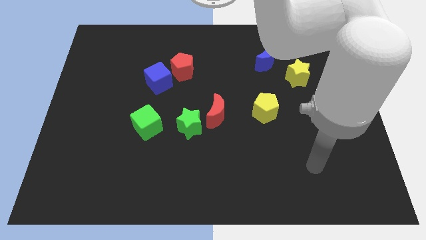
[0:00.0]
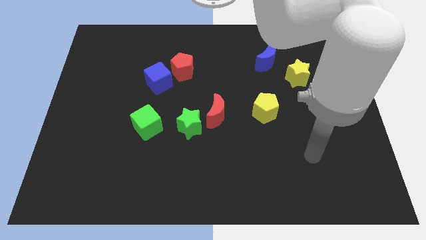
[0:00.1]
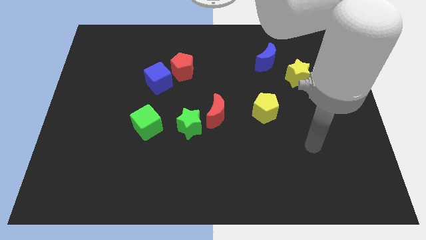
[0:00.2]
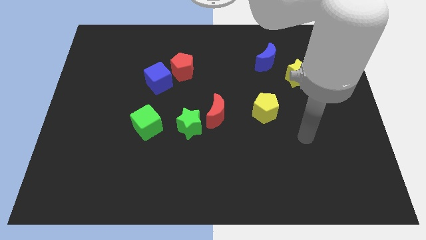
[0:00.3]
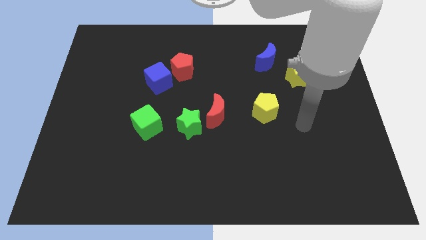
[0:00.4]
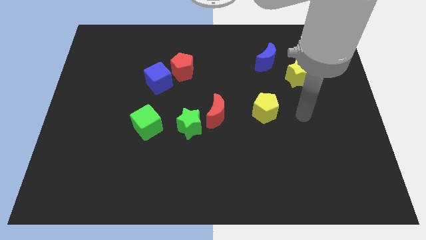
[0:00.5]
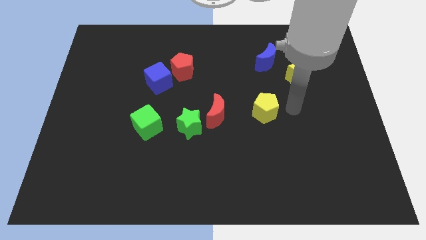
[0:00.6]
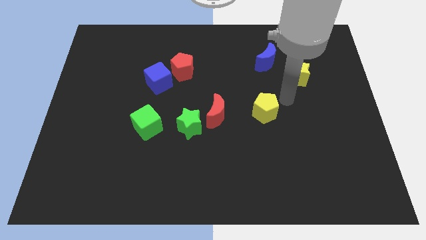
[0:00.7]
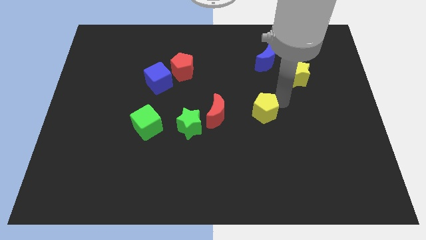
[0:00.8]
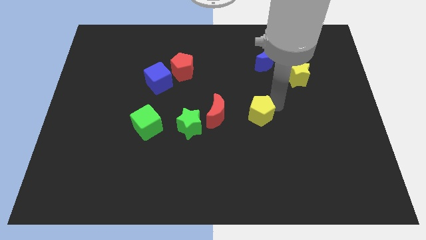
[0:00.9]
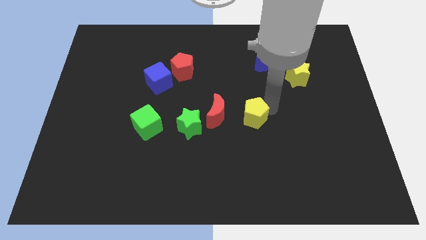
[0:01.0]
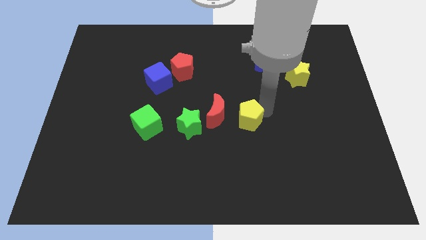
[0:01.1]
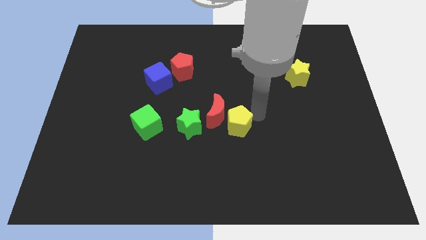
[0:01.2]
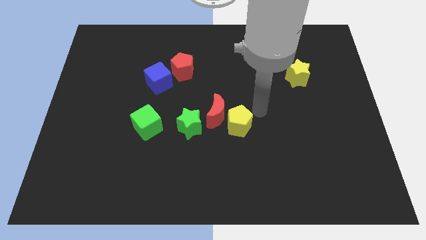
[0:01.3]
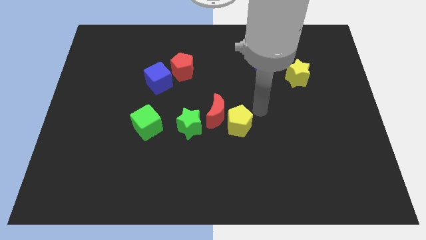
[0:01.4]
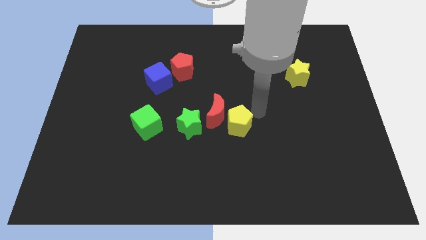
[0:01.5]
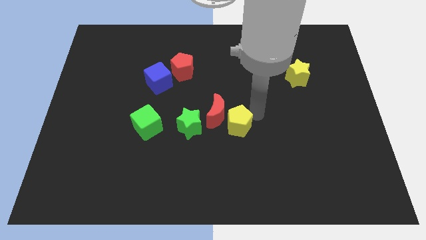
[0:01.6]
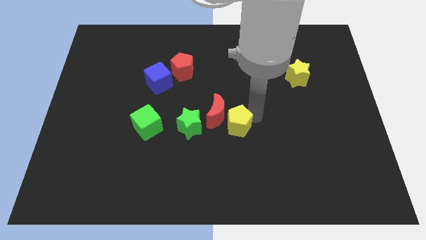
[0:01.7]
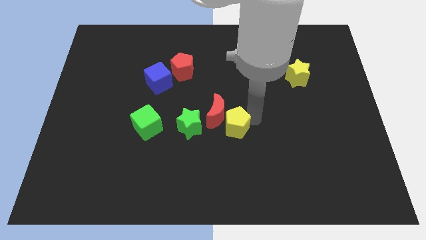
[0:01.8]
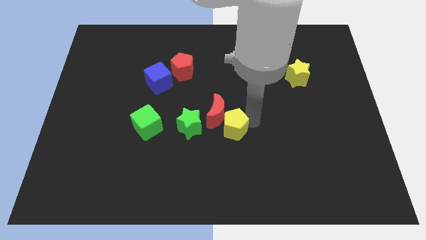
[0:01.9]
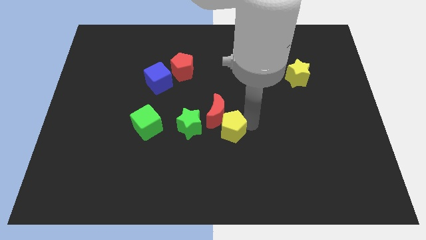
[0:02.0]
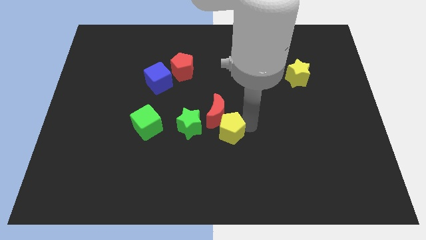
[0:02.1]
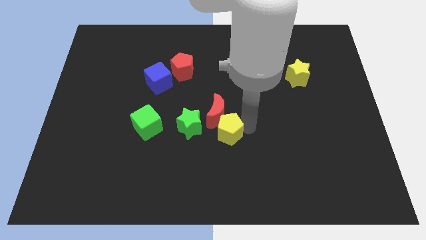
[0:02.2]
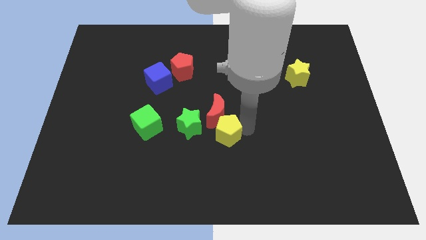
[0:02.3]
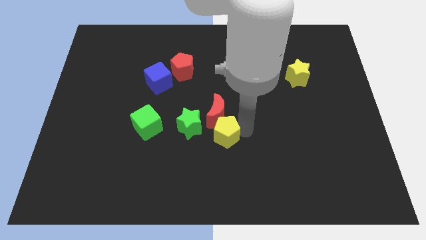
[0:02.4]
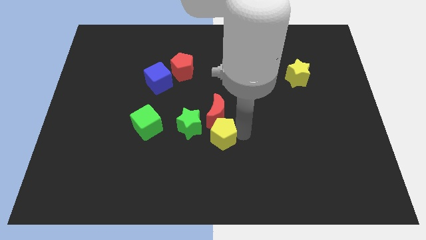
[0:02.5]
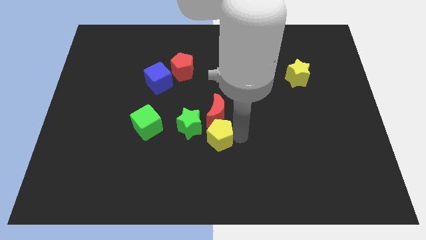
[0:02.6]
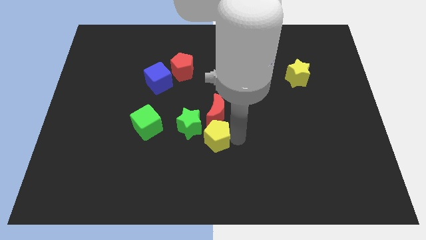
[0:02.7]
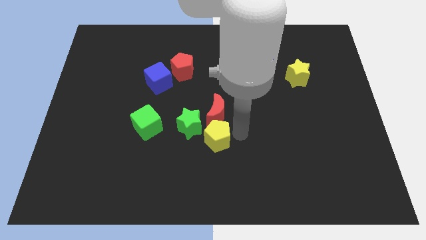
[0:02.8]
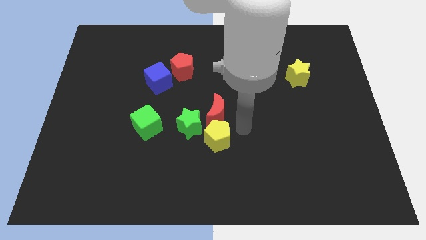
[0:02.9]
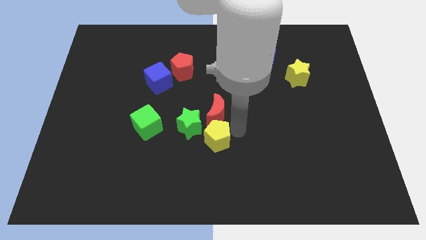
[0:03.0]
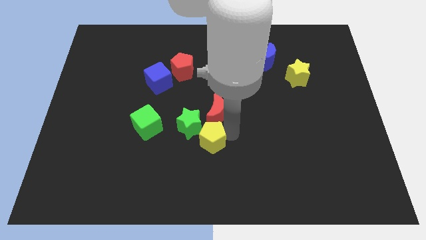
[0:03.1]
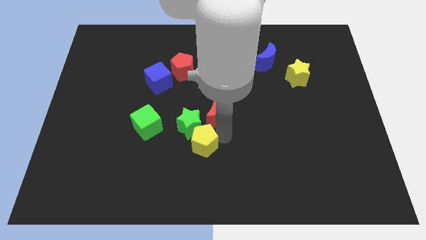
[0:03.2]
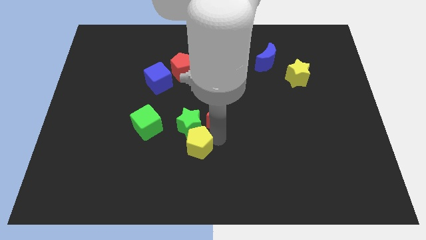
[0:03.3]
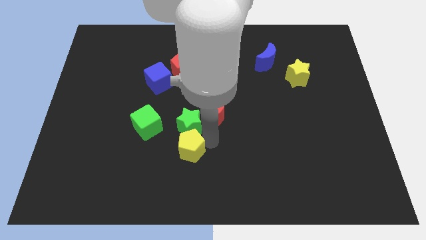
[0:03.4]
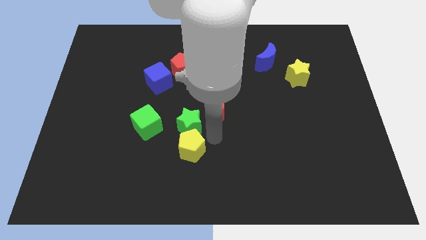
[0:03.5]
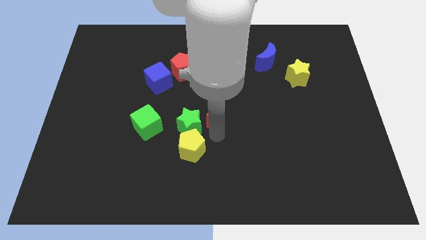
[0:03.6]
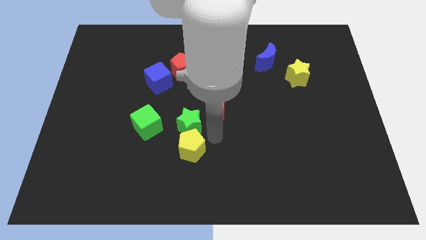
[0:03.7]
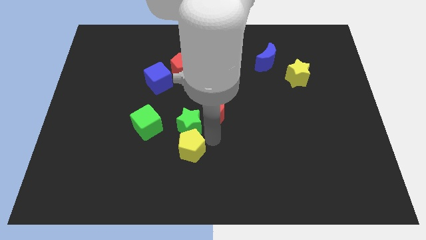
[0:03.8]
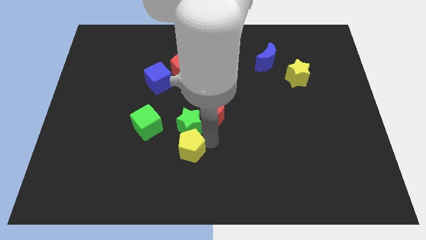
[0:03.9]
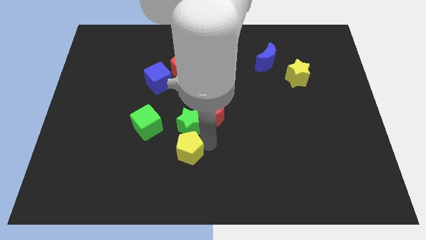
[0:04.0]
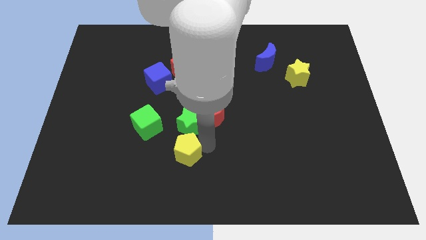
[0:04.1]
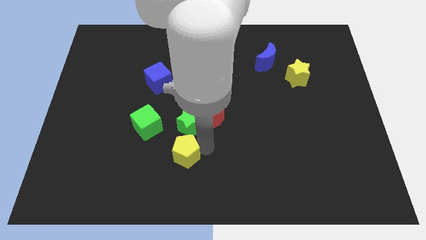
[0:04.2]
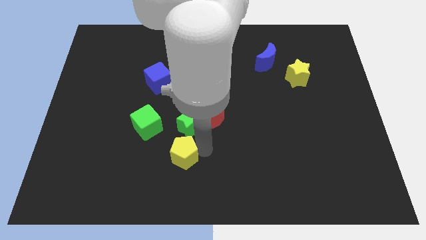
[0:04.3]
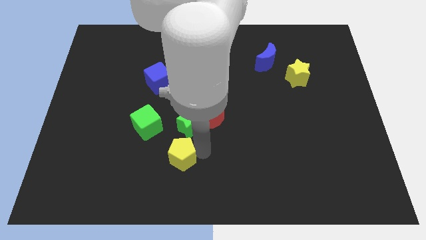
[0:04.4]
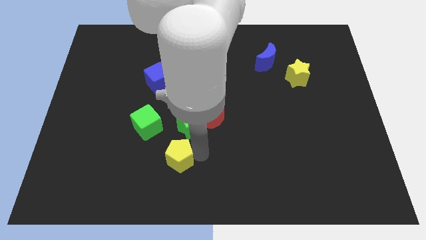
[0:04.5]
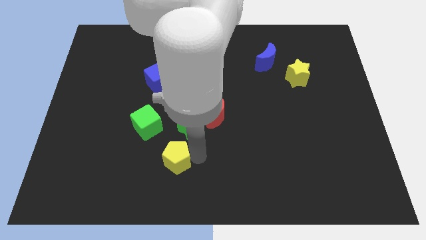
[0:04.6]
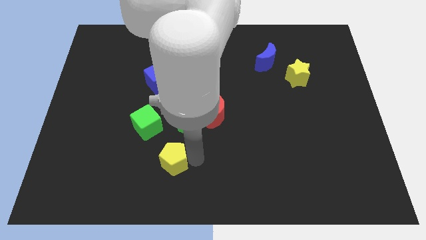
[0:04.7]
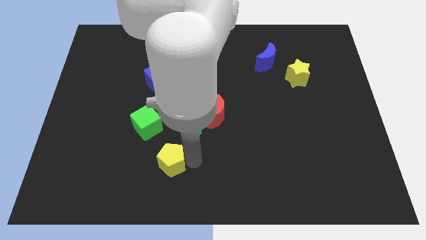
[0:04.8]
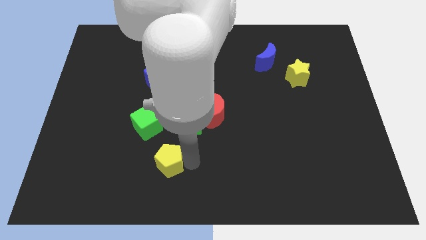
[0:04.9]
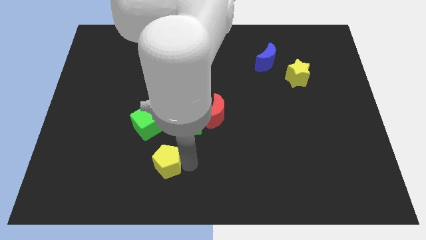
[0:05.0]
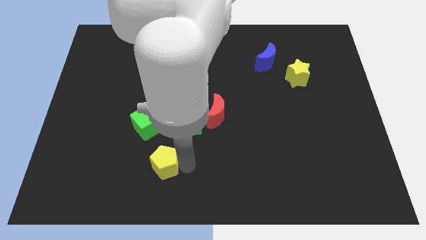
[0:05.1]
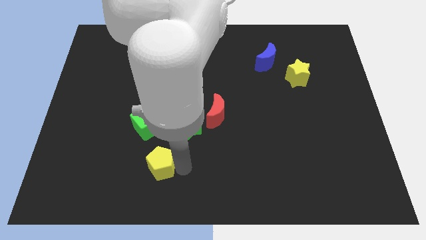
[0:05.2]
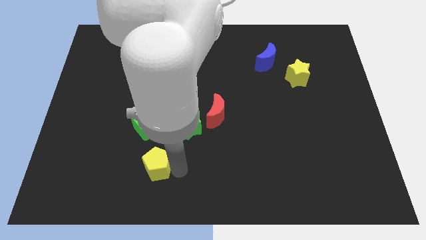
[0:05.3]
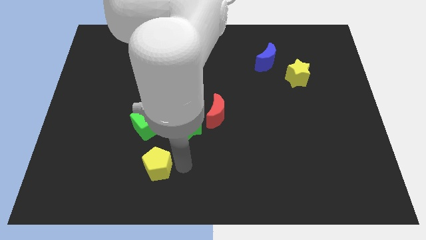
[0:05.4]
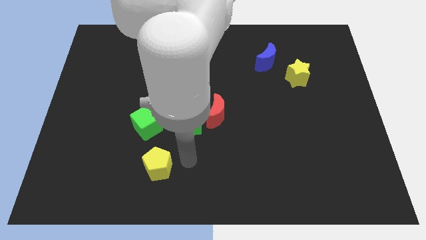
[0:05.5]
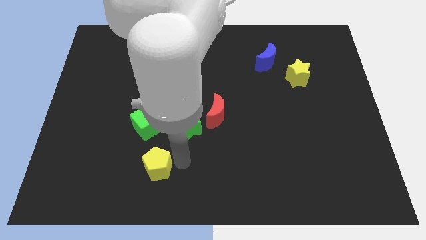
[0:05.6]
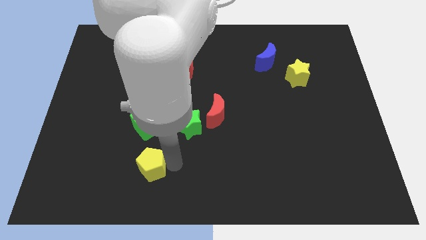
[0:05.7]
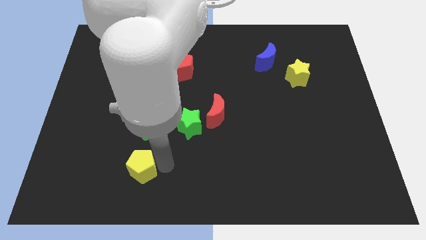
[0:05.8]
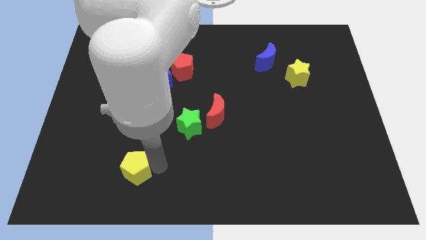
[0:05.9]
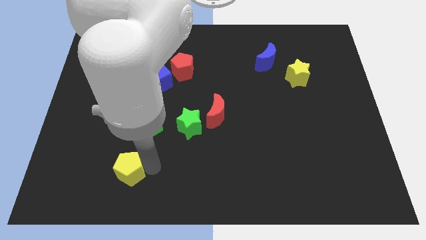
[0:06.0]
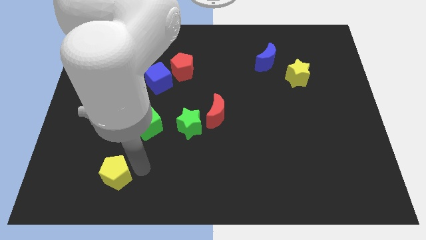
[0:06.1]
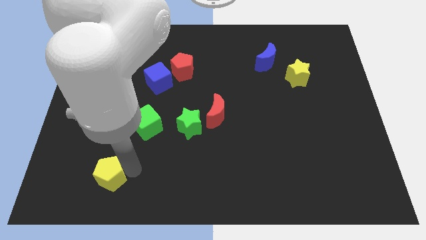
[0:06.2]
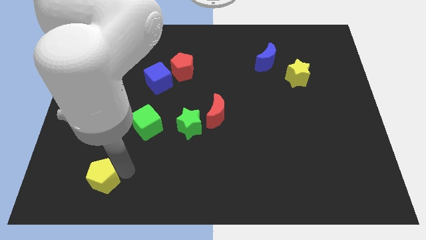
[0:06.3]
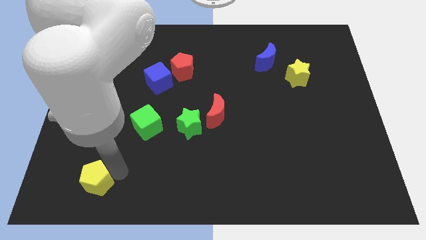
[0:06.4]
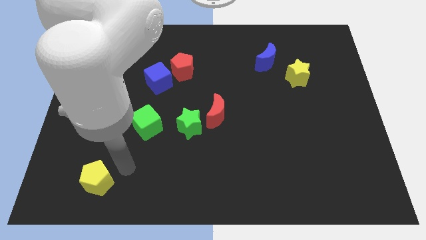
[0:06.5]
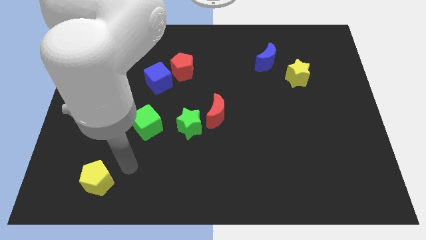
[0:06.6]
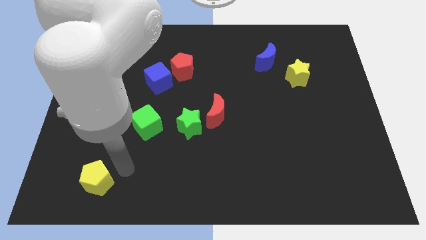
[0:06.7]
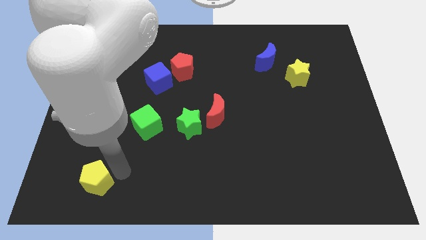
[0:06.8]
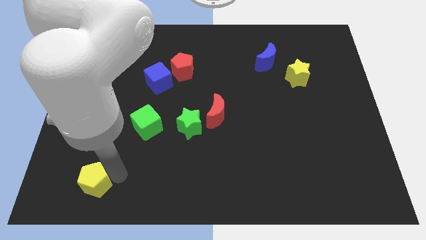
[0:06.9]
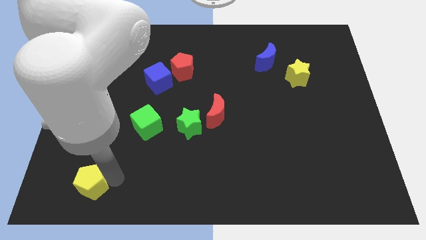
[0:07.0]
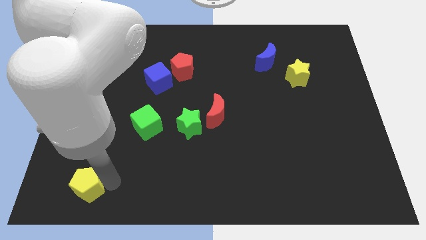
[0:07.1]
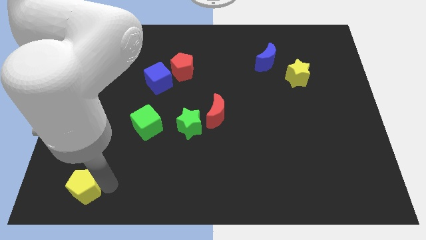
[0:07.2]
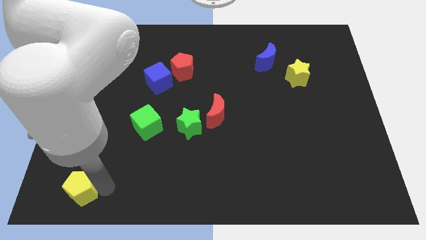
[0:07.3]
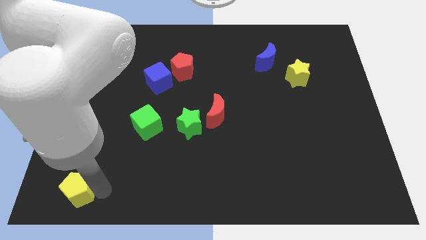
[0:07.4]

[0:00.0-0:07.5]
push the yellow pentagon to the bottom left corner
